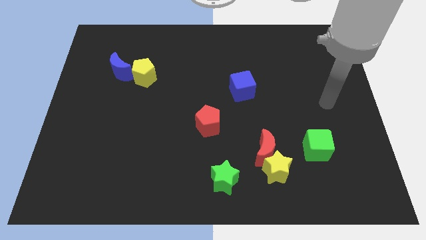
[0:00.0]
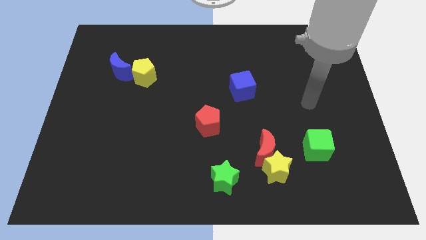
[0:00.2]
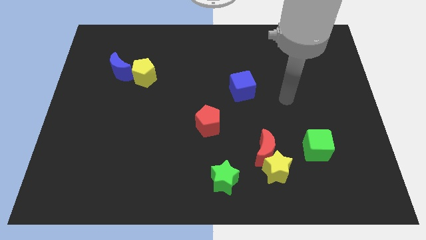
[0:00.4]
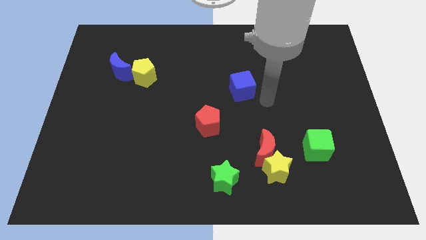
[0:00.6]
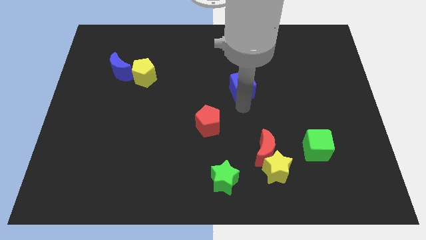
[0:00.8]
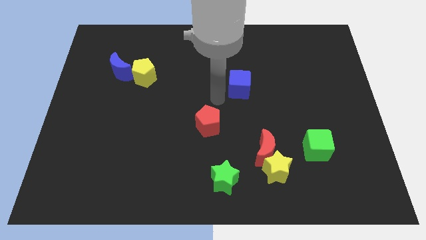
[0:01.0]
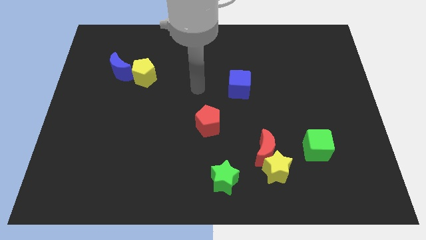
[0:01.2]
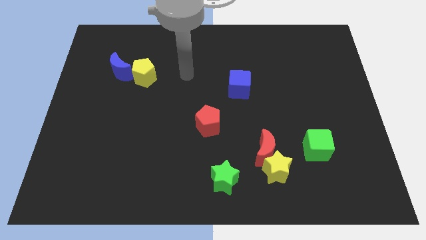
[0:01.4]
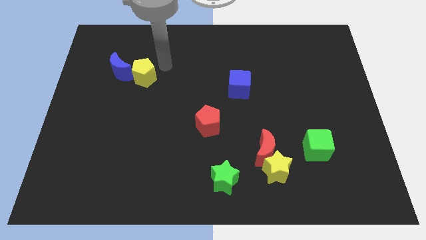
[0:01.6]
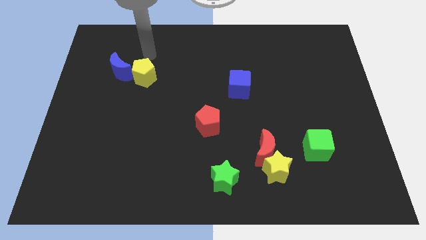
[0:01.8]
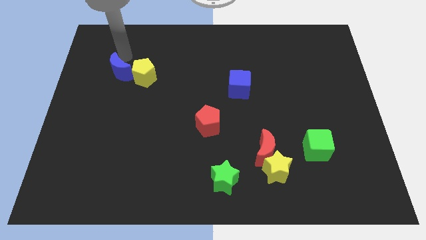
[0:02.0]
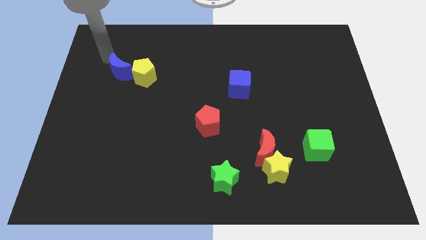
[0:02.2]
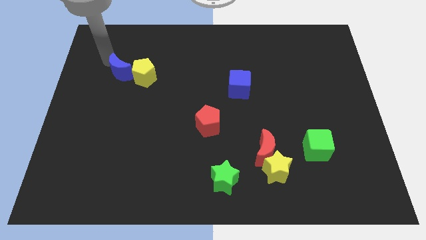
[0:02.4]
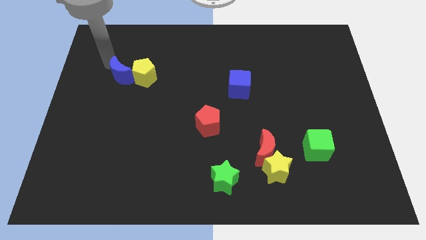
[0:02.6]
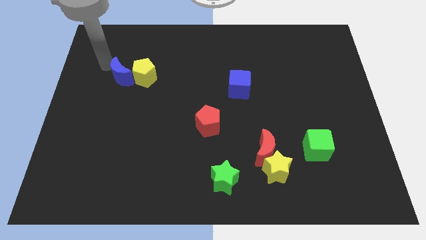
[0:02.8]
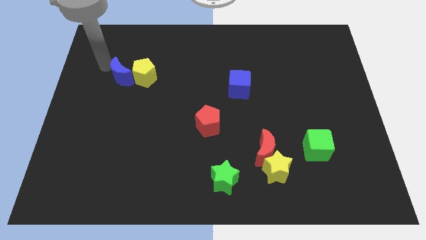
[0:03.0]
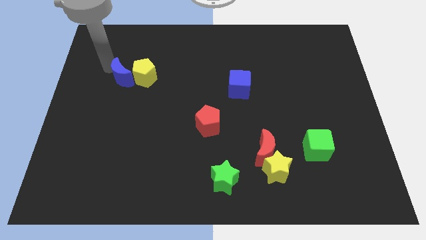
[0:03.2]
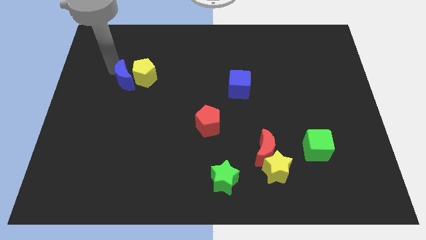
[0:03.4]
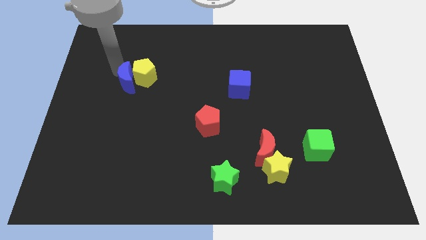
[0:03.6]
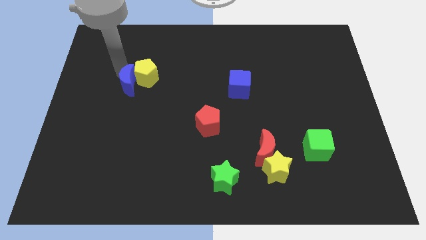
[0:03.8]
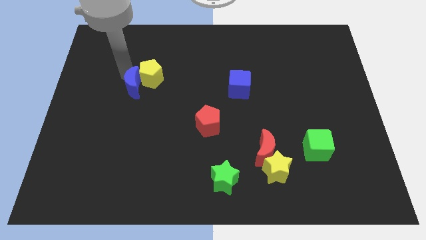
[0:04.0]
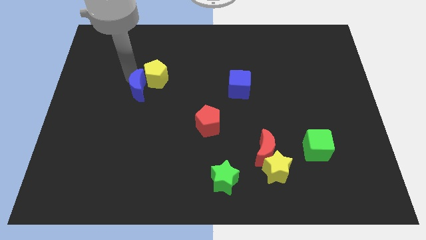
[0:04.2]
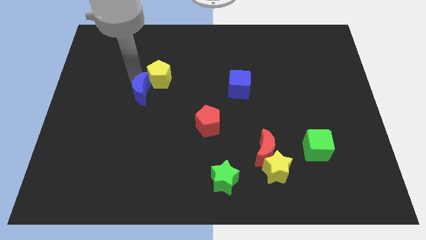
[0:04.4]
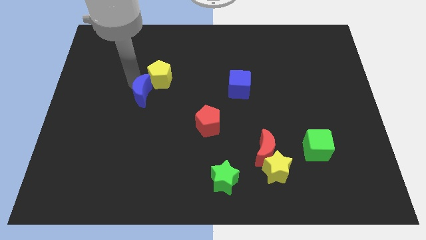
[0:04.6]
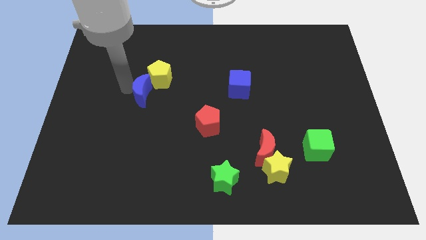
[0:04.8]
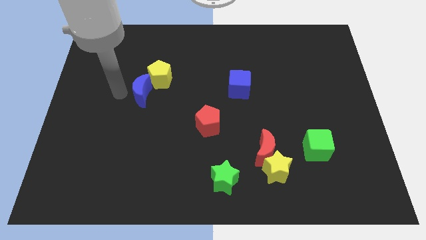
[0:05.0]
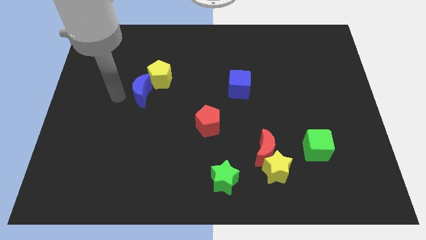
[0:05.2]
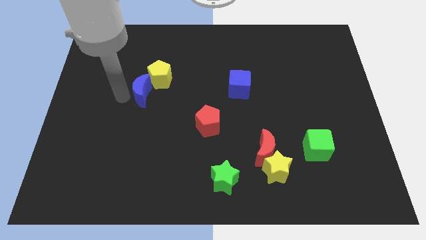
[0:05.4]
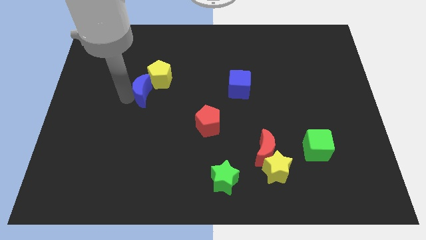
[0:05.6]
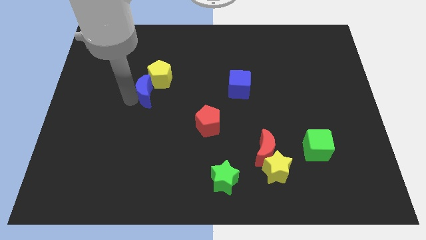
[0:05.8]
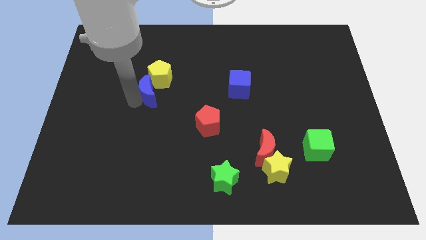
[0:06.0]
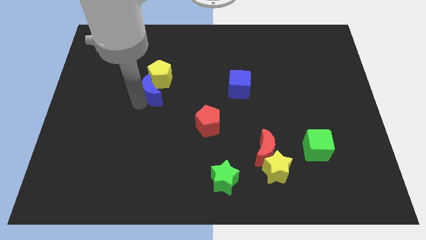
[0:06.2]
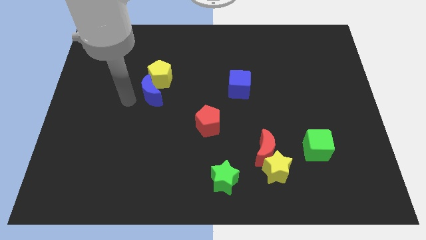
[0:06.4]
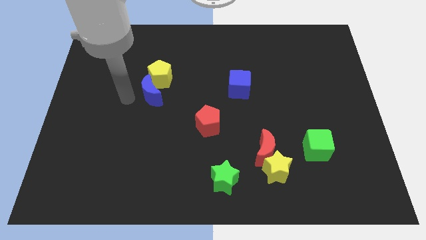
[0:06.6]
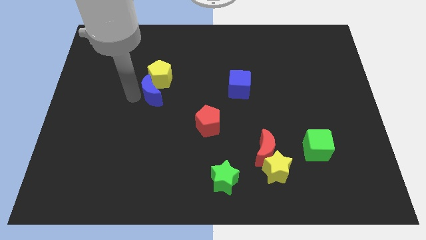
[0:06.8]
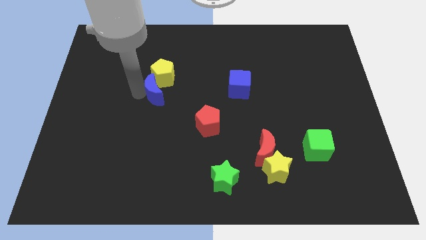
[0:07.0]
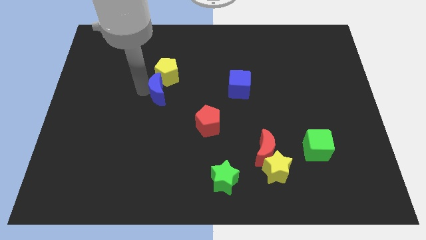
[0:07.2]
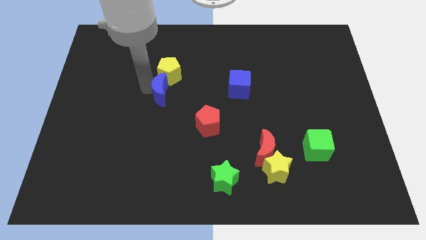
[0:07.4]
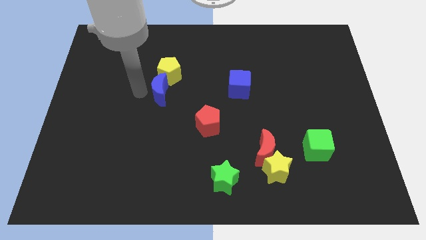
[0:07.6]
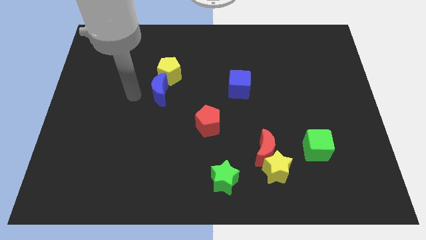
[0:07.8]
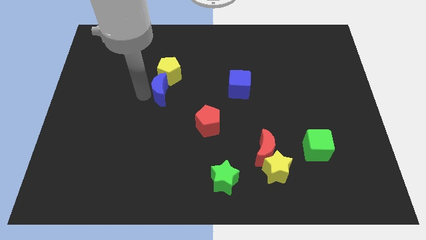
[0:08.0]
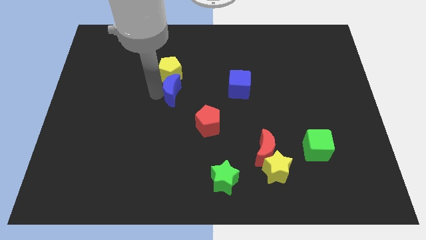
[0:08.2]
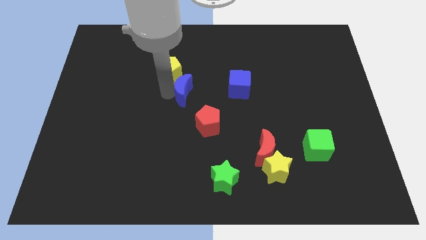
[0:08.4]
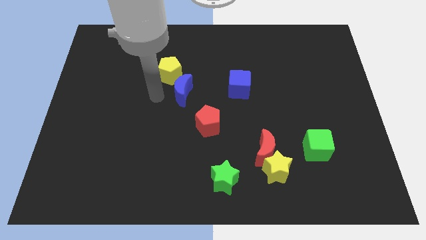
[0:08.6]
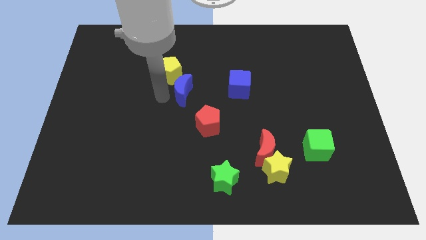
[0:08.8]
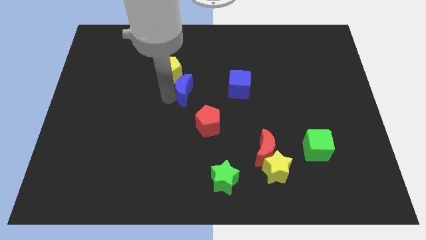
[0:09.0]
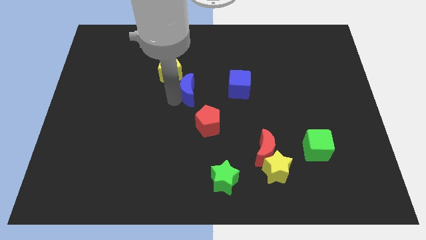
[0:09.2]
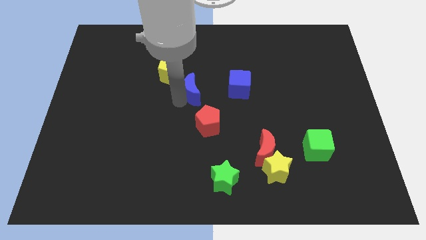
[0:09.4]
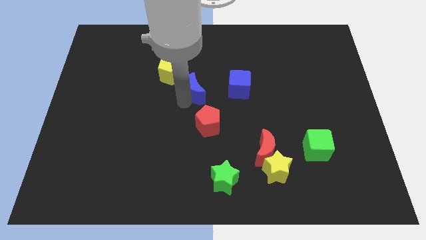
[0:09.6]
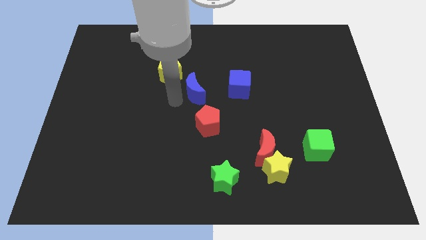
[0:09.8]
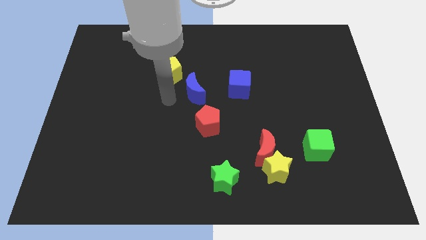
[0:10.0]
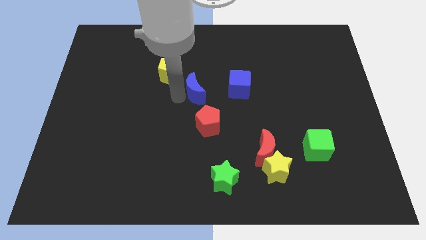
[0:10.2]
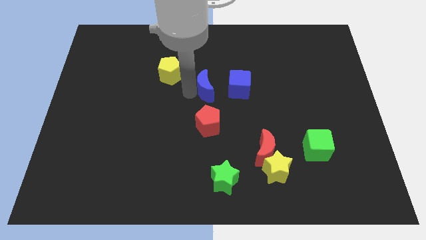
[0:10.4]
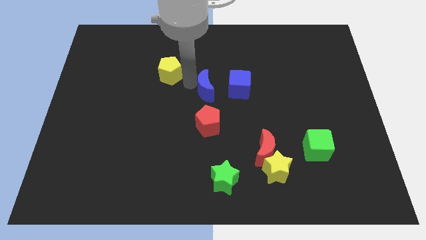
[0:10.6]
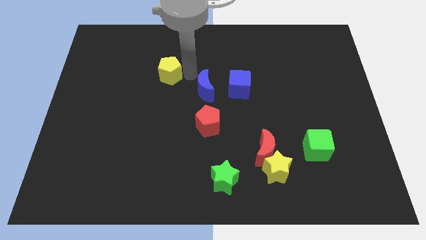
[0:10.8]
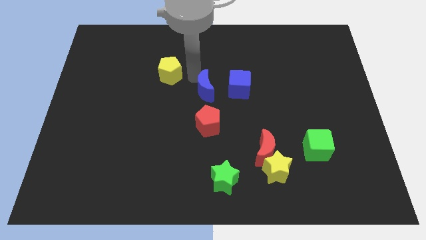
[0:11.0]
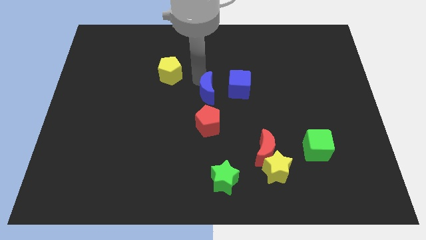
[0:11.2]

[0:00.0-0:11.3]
slide the blue moon to the bottom left of the blue cube

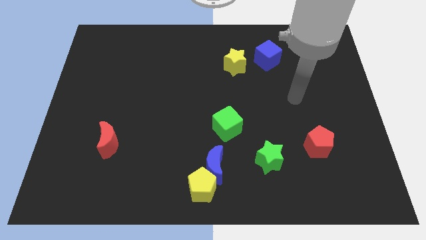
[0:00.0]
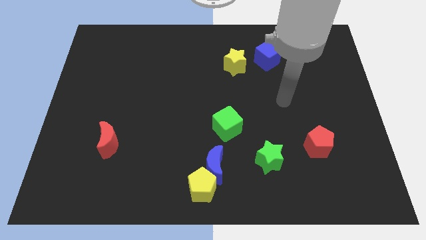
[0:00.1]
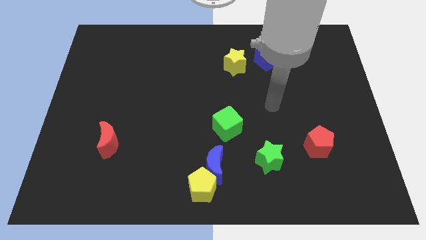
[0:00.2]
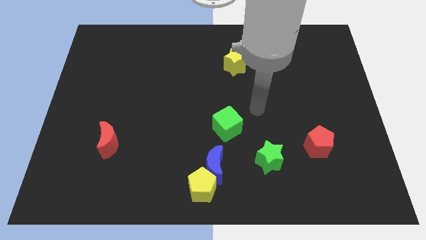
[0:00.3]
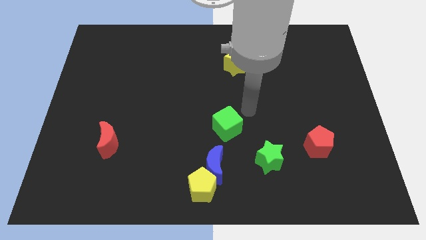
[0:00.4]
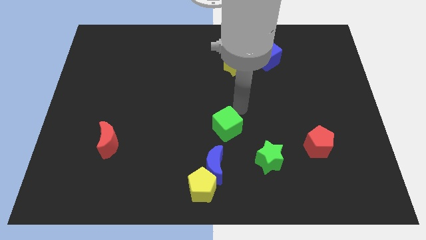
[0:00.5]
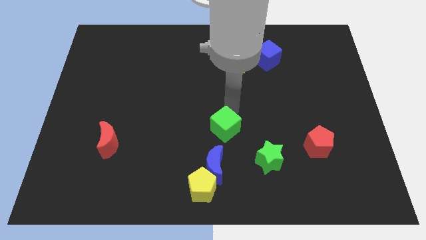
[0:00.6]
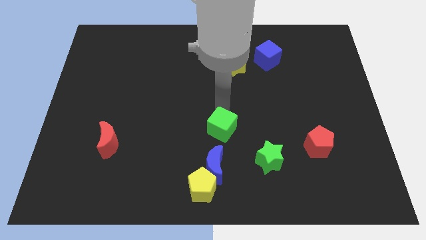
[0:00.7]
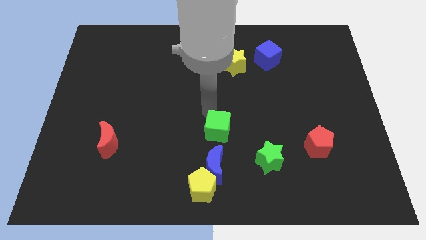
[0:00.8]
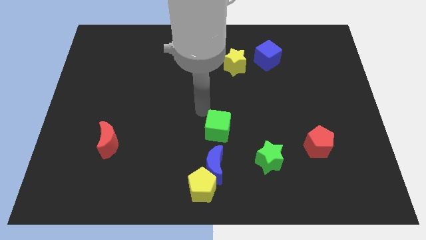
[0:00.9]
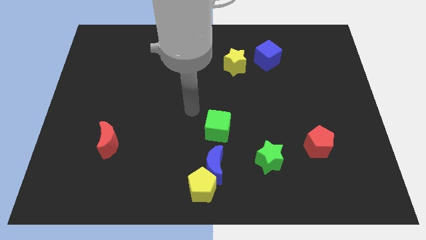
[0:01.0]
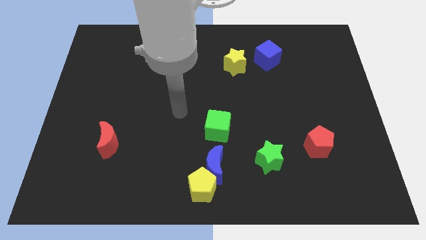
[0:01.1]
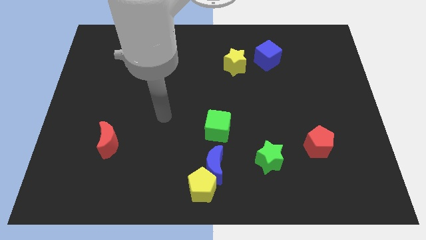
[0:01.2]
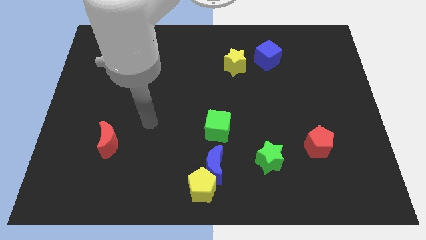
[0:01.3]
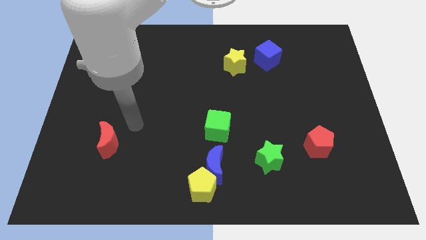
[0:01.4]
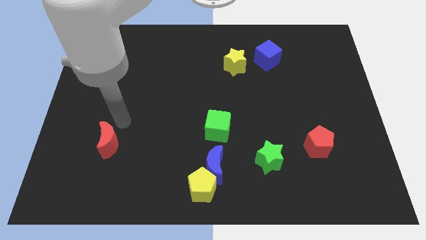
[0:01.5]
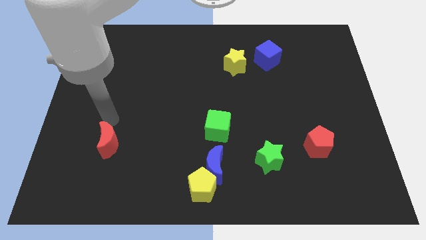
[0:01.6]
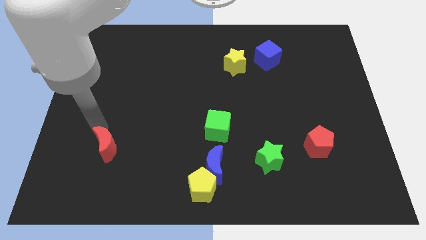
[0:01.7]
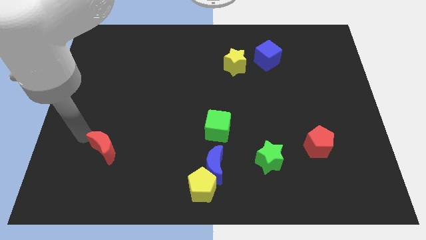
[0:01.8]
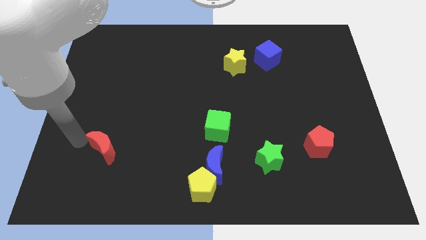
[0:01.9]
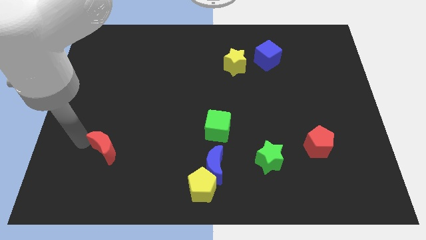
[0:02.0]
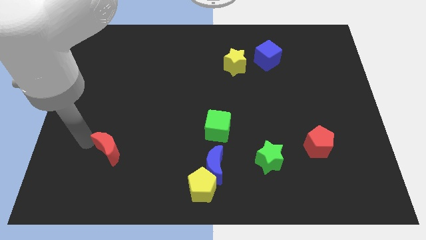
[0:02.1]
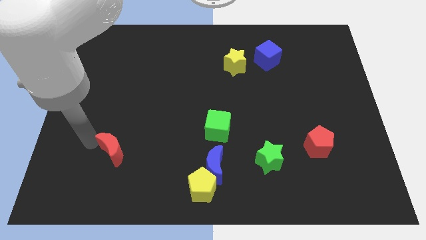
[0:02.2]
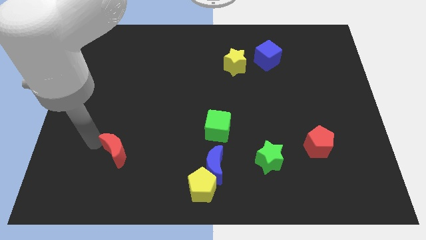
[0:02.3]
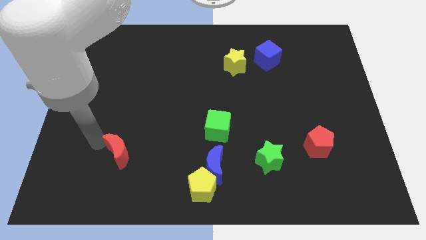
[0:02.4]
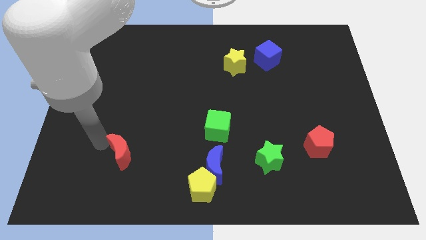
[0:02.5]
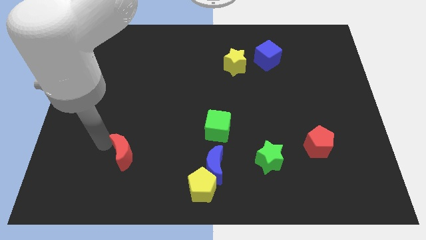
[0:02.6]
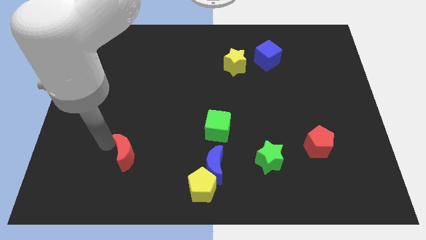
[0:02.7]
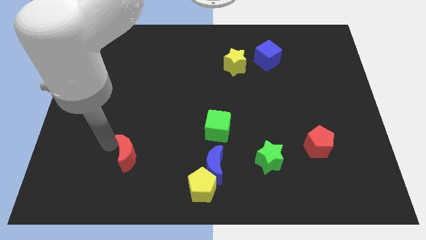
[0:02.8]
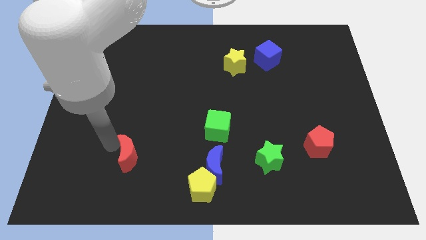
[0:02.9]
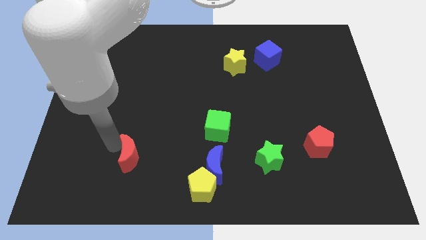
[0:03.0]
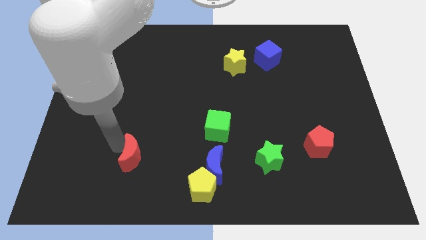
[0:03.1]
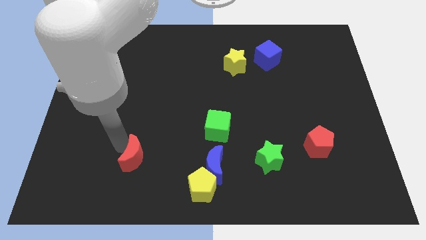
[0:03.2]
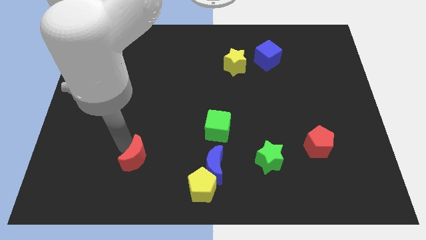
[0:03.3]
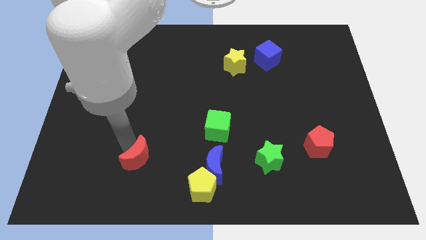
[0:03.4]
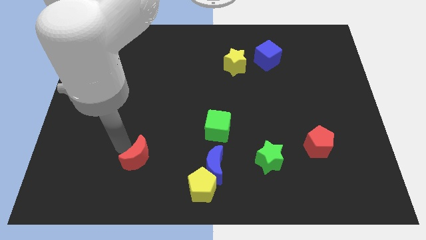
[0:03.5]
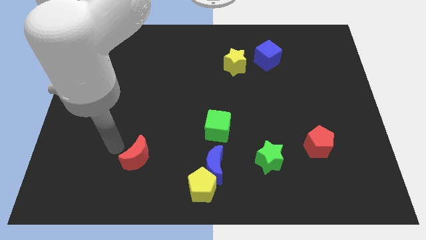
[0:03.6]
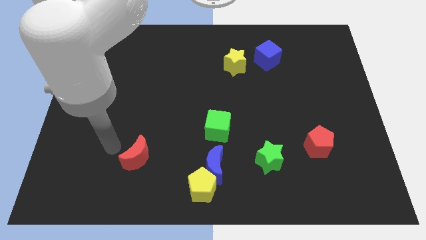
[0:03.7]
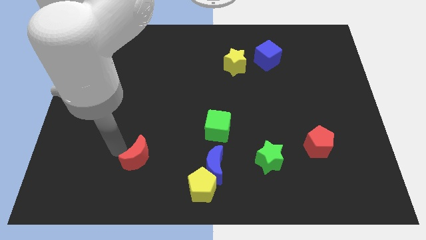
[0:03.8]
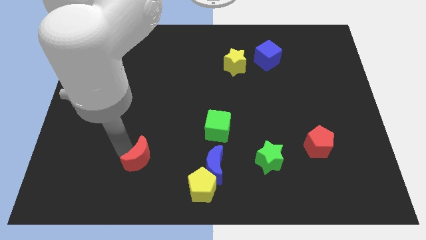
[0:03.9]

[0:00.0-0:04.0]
put the red moon left of the blue moon
